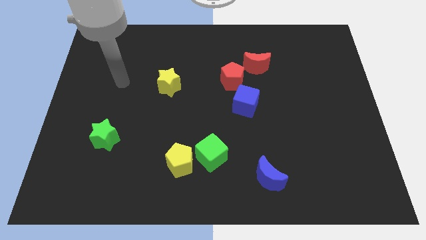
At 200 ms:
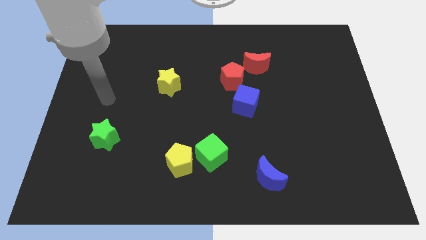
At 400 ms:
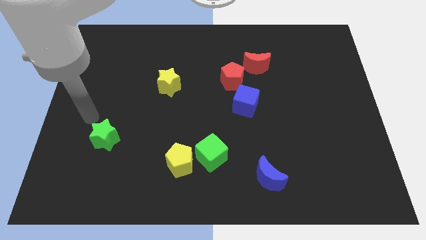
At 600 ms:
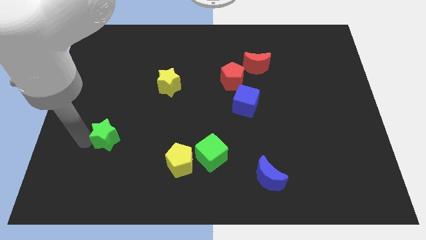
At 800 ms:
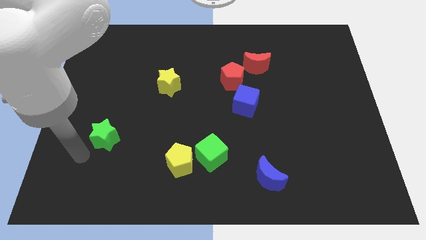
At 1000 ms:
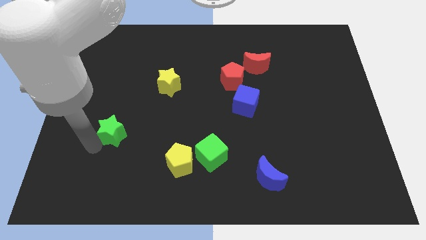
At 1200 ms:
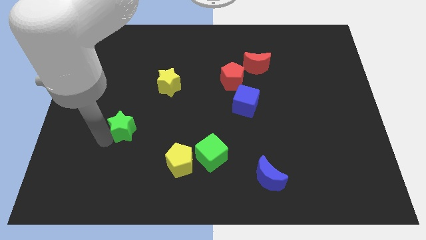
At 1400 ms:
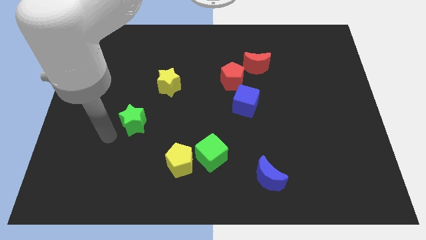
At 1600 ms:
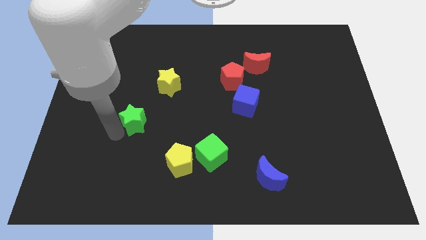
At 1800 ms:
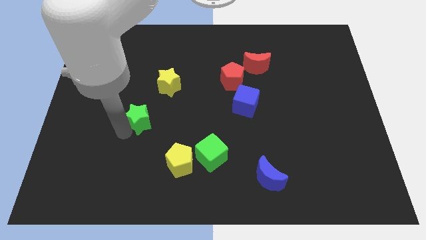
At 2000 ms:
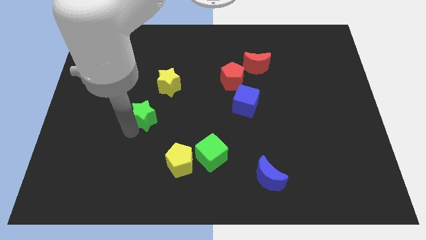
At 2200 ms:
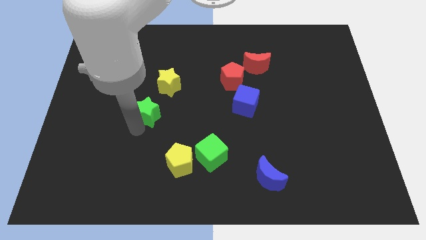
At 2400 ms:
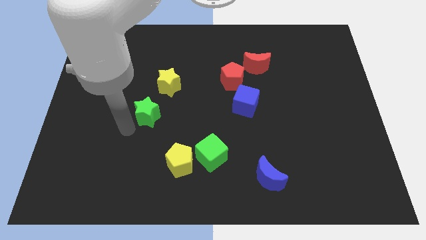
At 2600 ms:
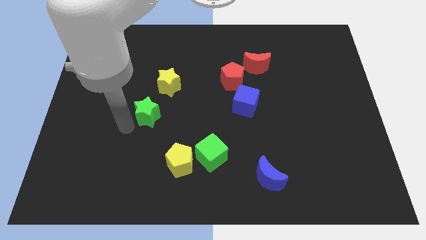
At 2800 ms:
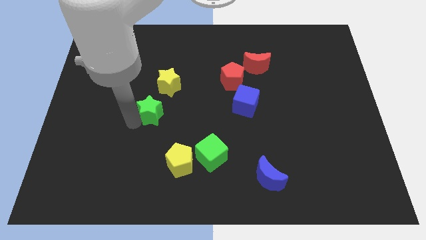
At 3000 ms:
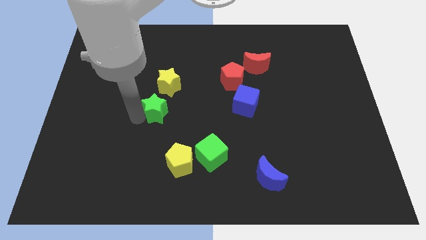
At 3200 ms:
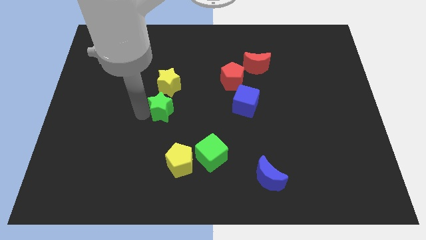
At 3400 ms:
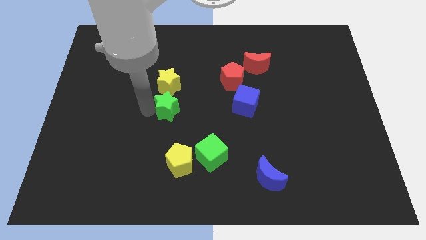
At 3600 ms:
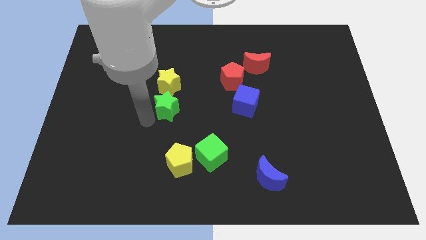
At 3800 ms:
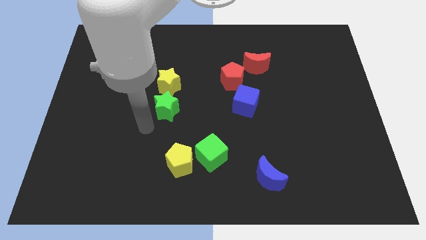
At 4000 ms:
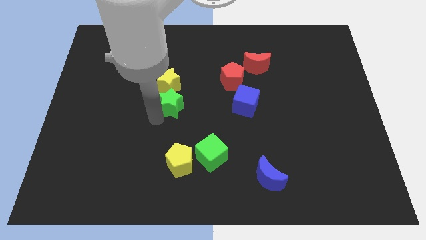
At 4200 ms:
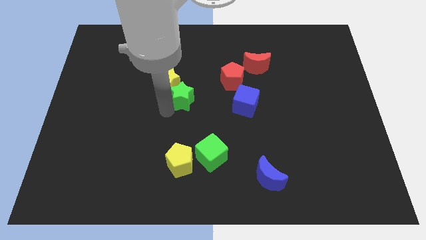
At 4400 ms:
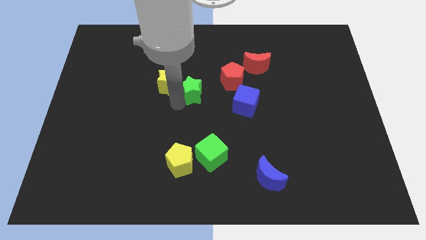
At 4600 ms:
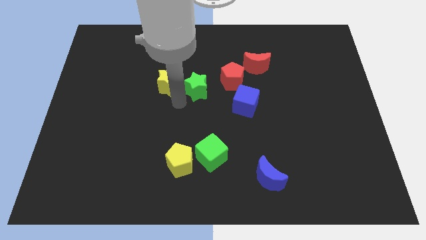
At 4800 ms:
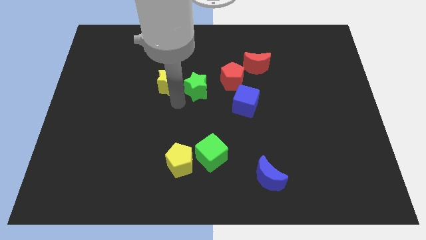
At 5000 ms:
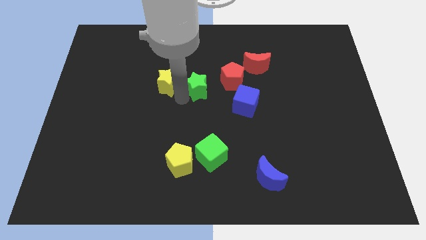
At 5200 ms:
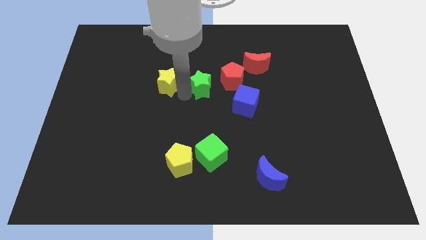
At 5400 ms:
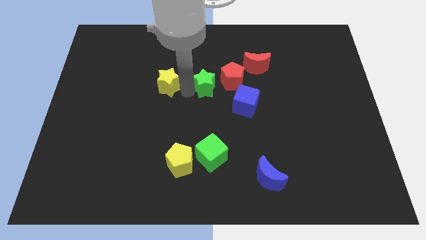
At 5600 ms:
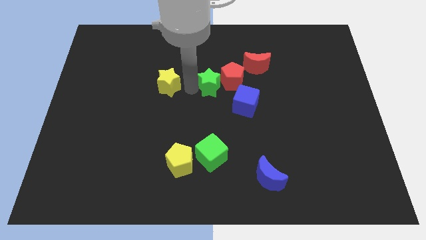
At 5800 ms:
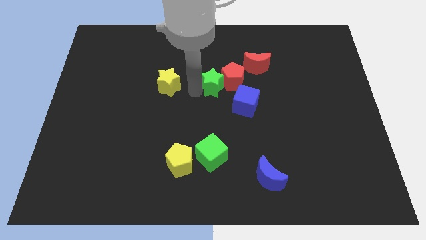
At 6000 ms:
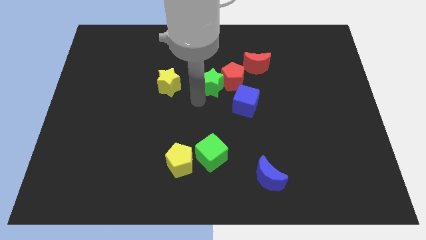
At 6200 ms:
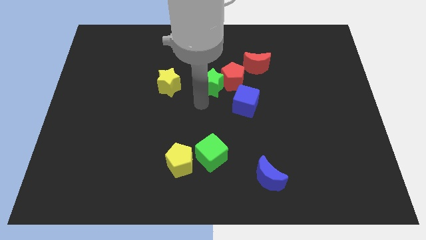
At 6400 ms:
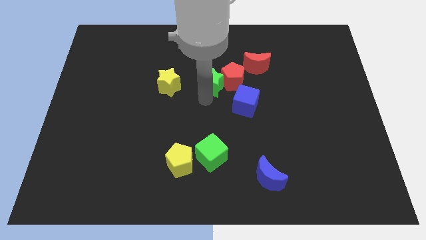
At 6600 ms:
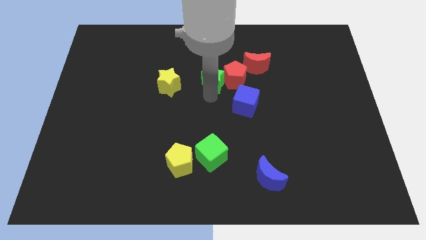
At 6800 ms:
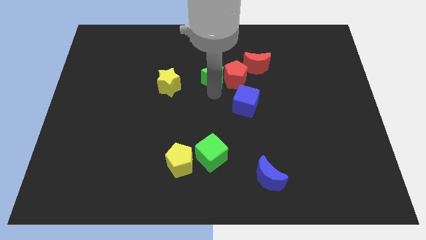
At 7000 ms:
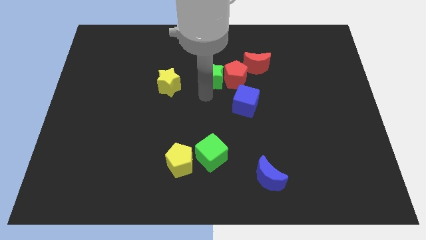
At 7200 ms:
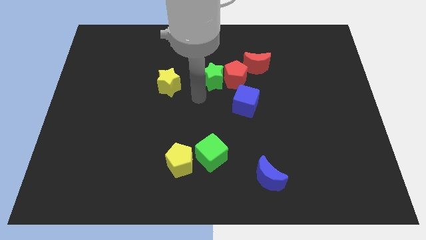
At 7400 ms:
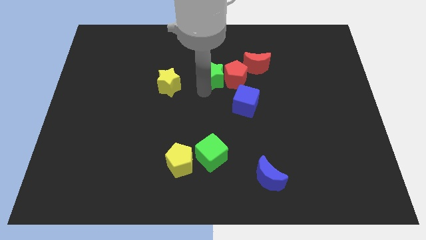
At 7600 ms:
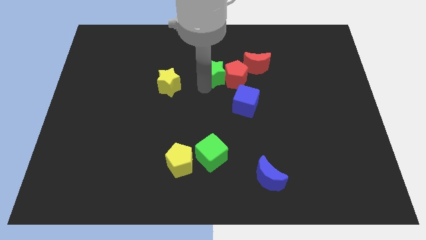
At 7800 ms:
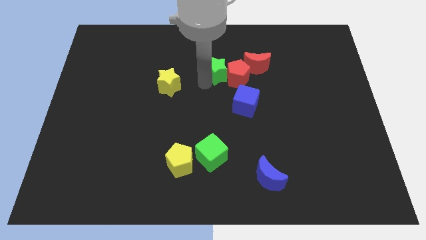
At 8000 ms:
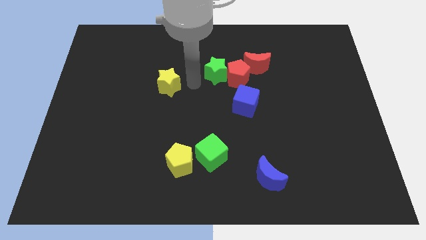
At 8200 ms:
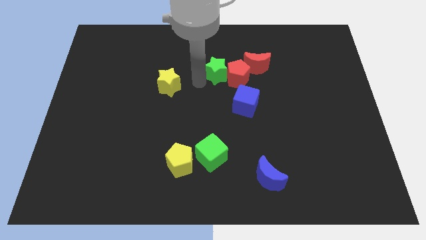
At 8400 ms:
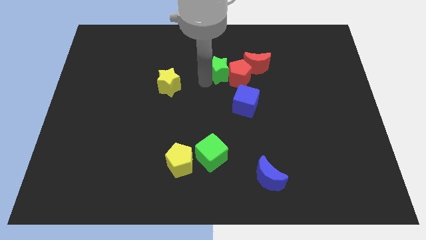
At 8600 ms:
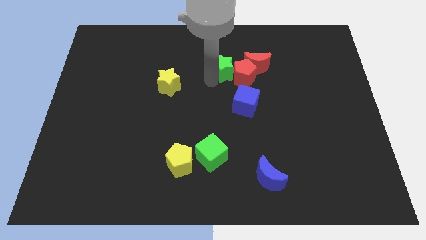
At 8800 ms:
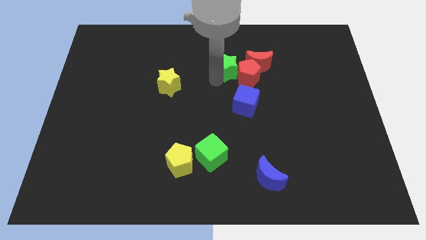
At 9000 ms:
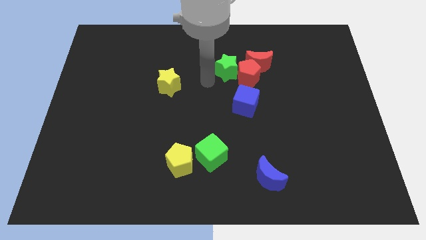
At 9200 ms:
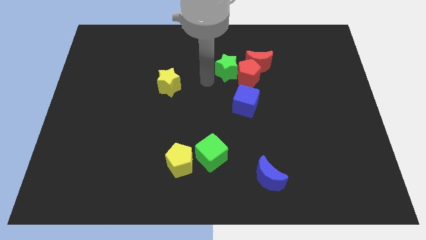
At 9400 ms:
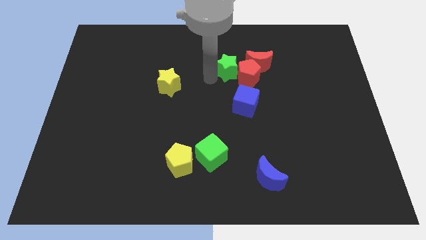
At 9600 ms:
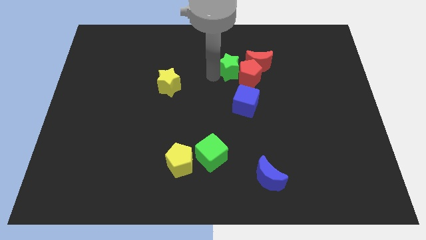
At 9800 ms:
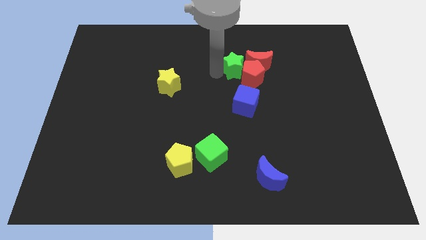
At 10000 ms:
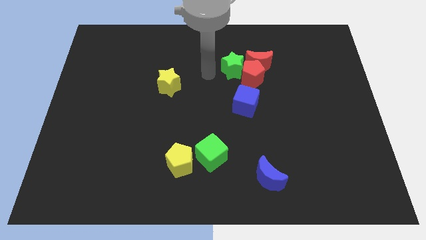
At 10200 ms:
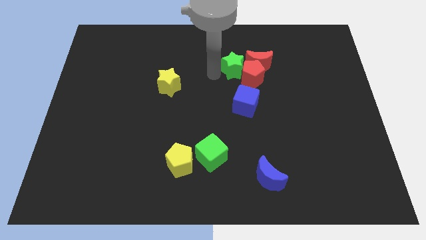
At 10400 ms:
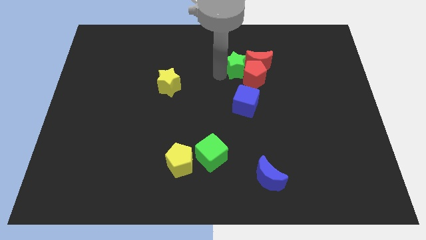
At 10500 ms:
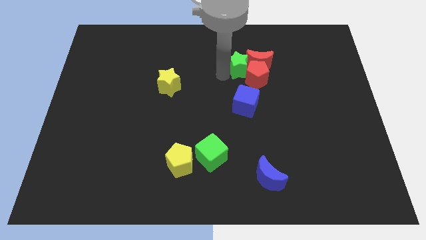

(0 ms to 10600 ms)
push the green star close to the red moon

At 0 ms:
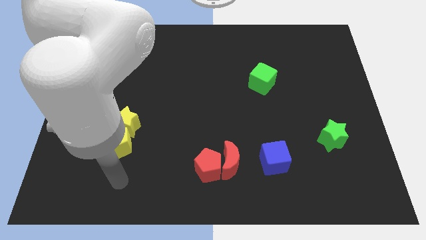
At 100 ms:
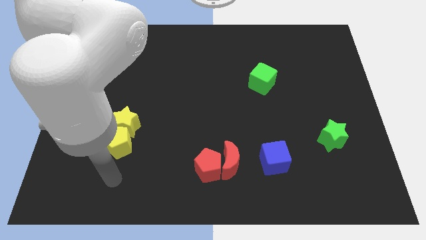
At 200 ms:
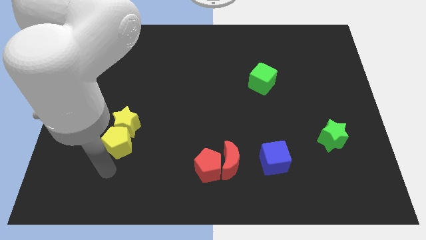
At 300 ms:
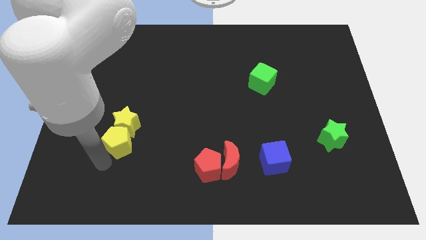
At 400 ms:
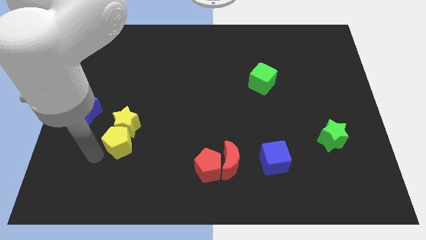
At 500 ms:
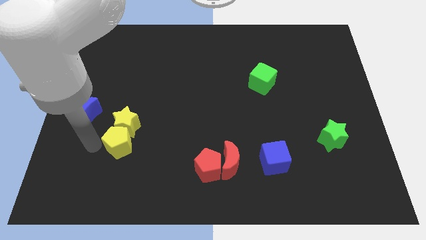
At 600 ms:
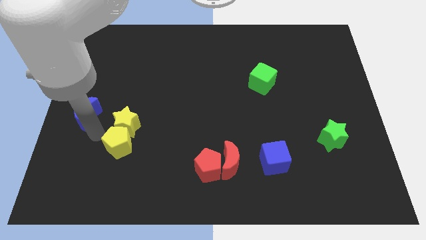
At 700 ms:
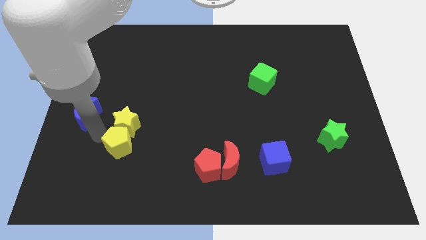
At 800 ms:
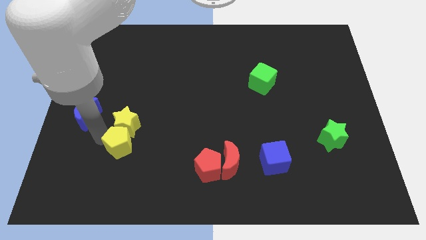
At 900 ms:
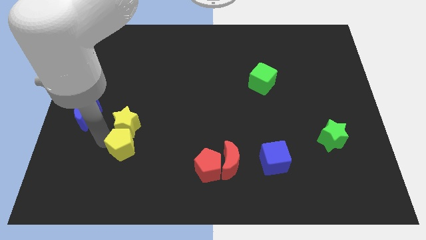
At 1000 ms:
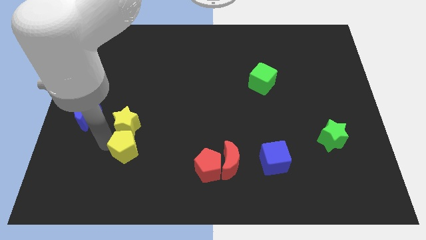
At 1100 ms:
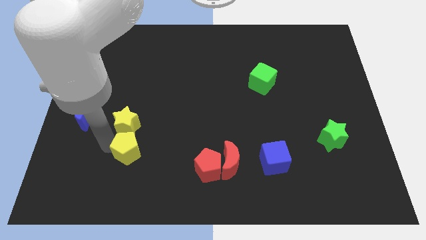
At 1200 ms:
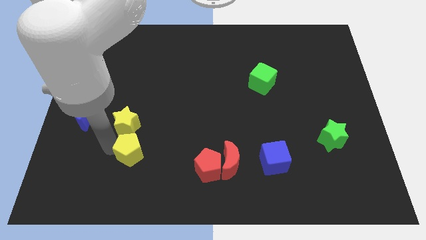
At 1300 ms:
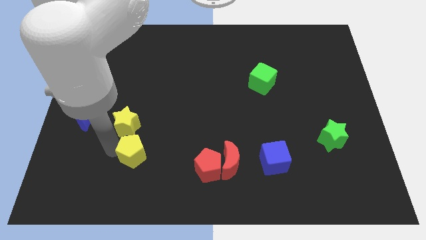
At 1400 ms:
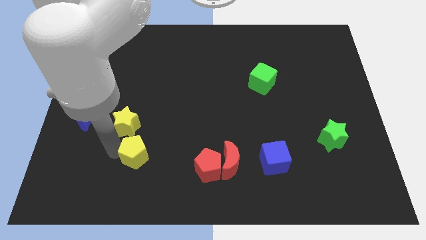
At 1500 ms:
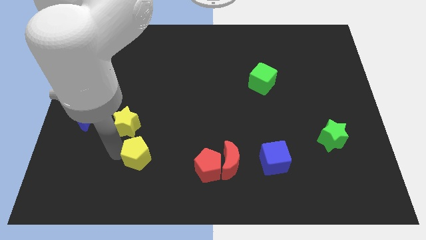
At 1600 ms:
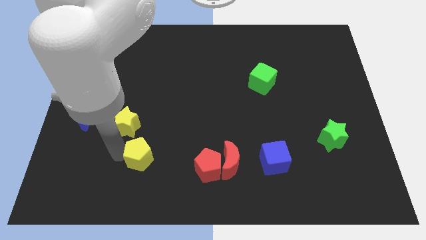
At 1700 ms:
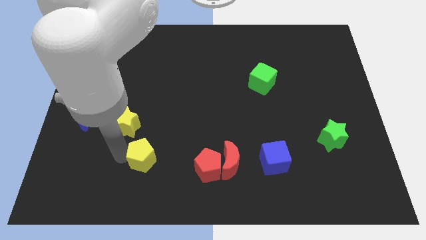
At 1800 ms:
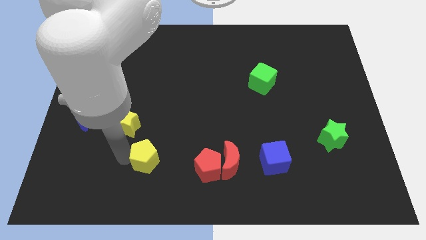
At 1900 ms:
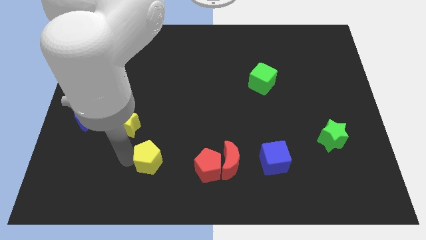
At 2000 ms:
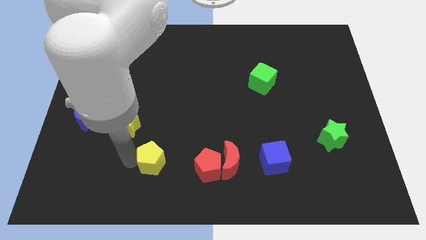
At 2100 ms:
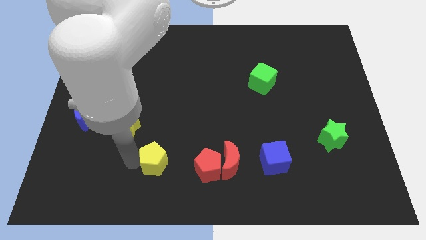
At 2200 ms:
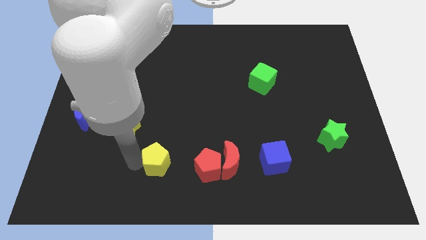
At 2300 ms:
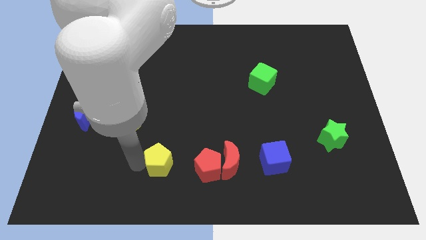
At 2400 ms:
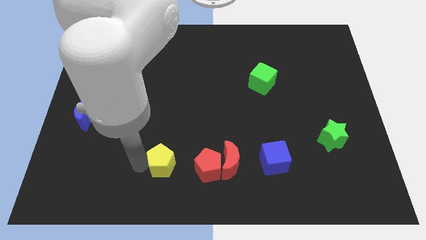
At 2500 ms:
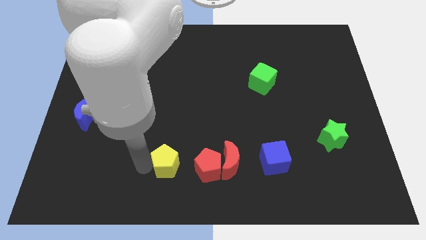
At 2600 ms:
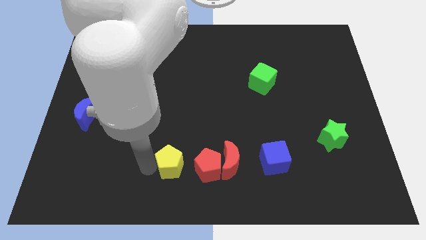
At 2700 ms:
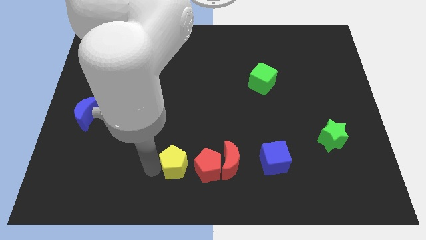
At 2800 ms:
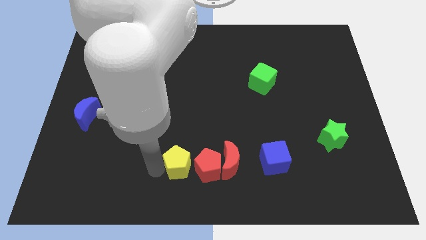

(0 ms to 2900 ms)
push the yellow pentagon towards the red pentagon
